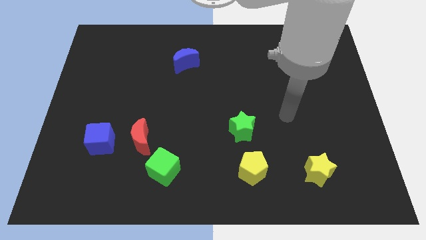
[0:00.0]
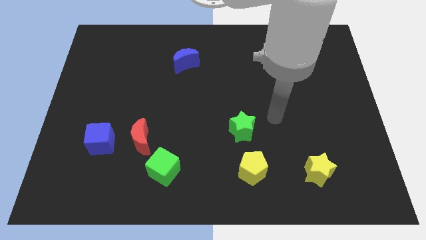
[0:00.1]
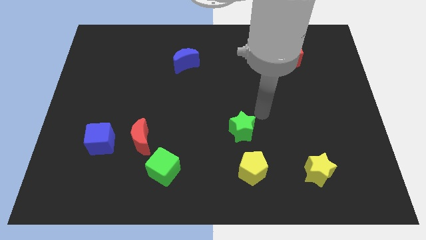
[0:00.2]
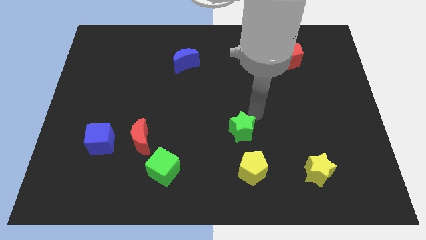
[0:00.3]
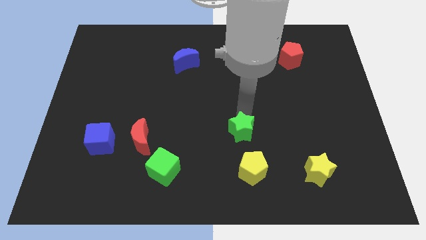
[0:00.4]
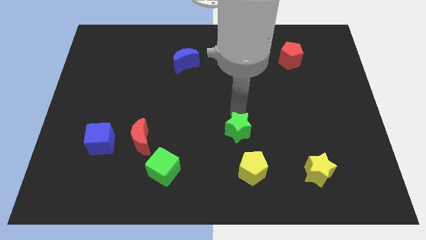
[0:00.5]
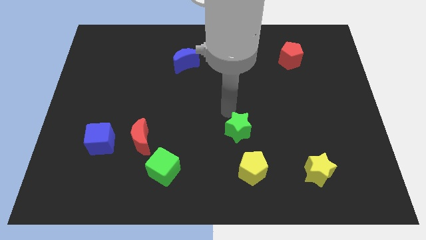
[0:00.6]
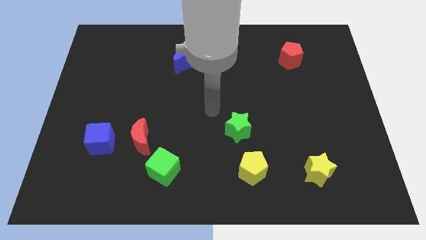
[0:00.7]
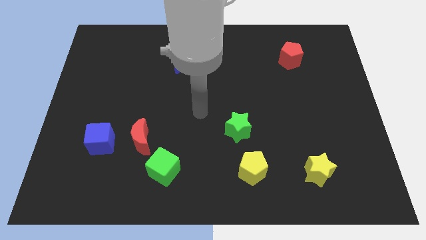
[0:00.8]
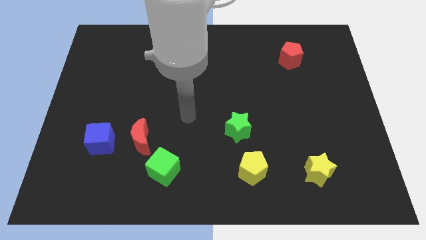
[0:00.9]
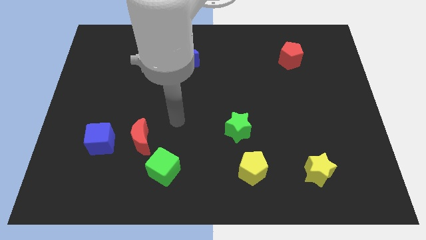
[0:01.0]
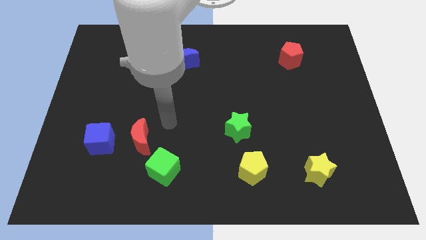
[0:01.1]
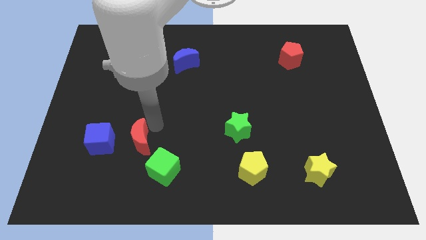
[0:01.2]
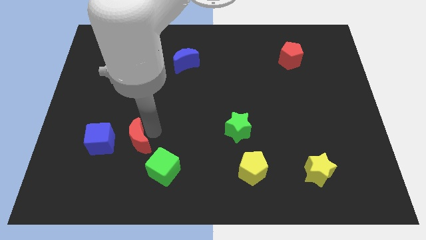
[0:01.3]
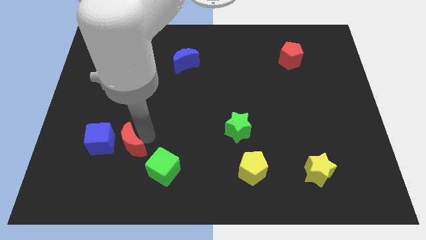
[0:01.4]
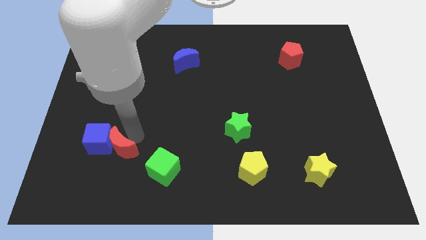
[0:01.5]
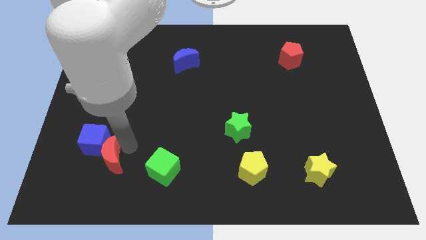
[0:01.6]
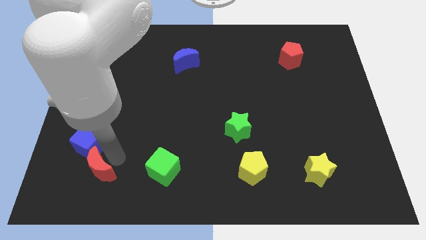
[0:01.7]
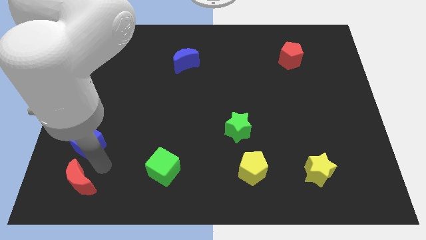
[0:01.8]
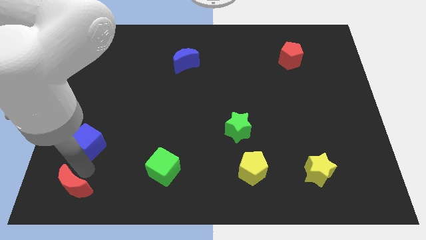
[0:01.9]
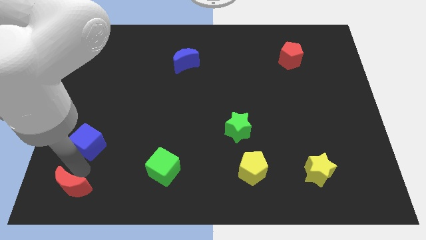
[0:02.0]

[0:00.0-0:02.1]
pull the blue cube apart from the red moon

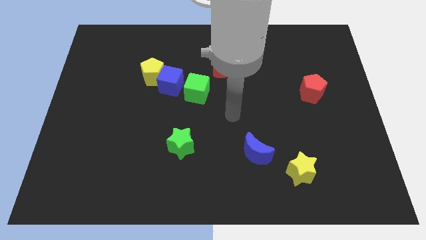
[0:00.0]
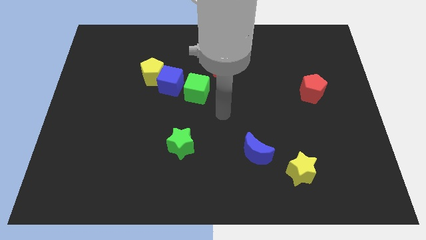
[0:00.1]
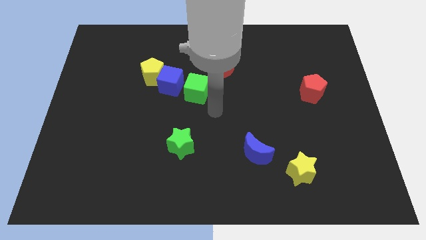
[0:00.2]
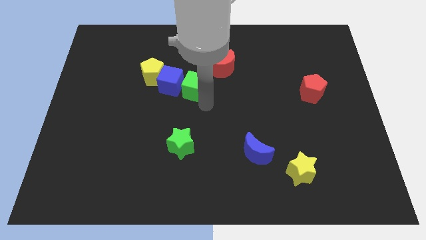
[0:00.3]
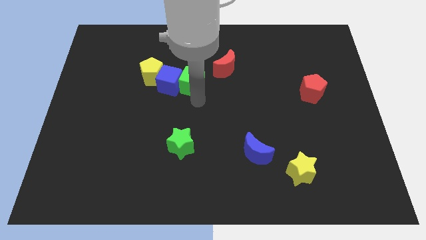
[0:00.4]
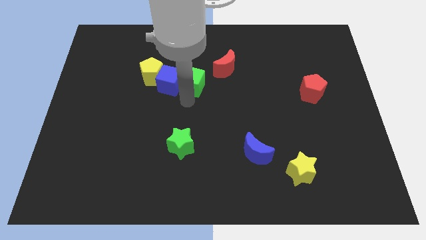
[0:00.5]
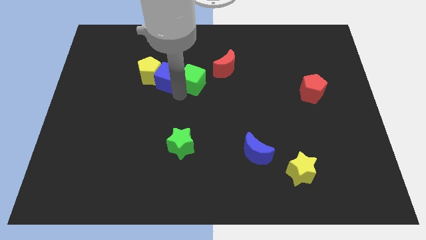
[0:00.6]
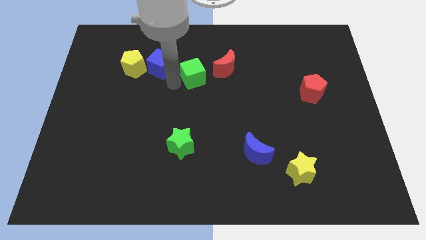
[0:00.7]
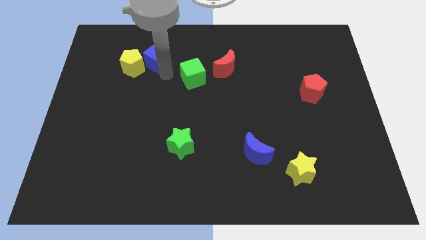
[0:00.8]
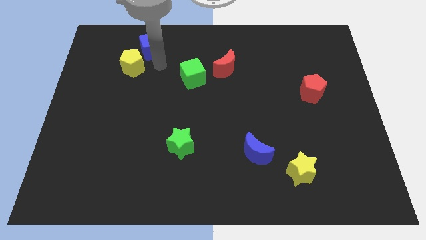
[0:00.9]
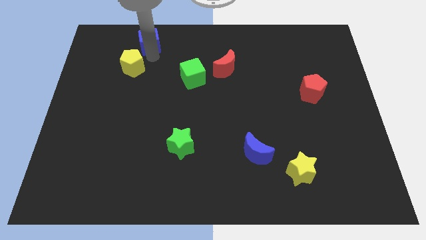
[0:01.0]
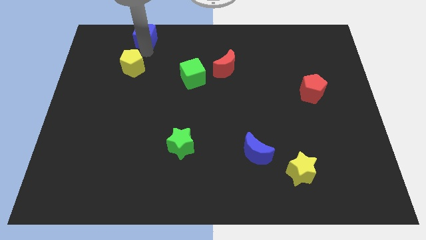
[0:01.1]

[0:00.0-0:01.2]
pull the yellow pentagon apart from the blue cube

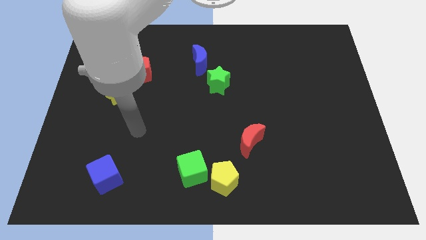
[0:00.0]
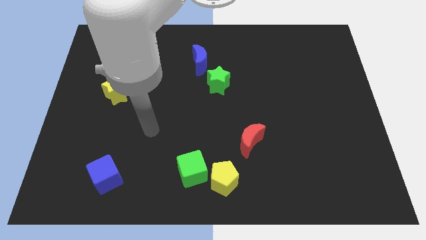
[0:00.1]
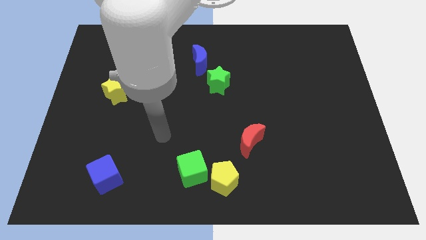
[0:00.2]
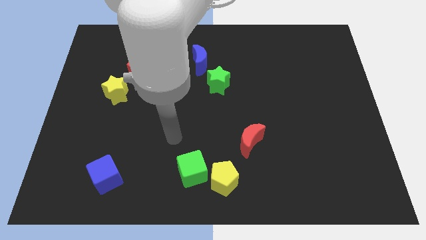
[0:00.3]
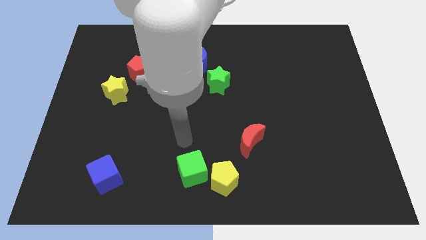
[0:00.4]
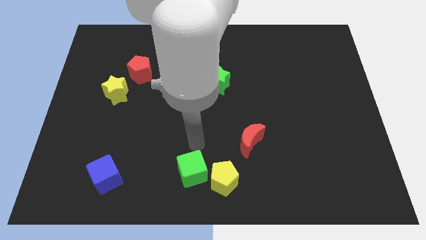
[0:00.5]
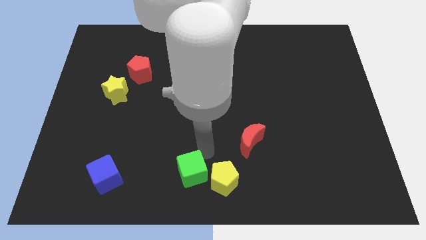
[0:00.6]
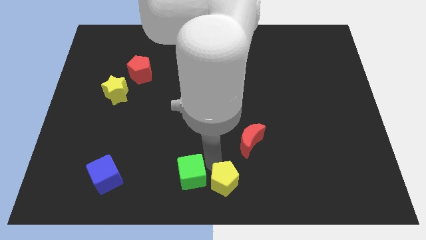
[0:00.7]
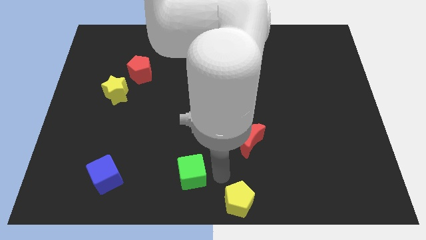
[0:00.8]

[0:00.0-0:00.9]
move the green cube away from the yellow pentagon

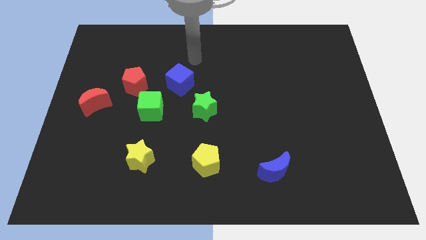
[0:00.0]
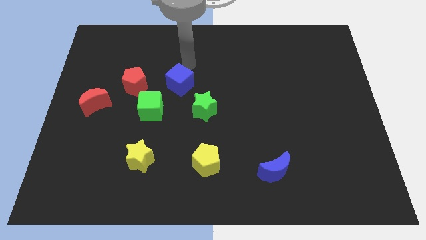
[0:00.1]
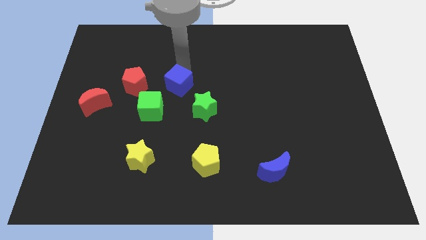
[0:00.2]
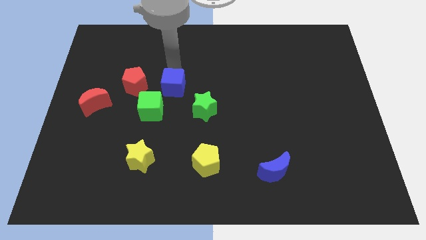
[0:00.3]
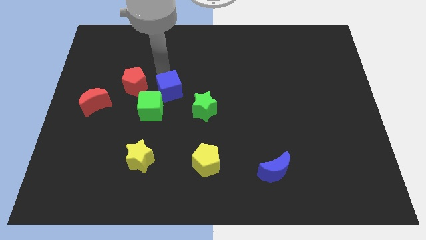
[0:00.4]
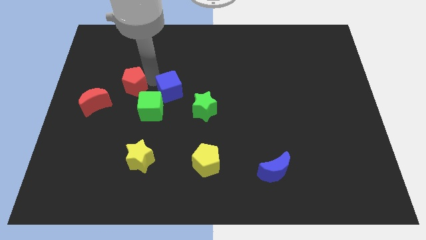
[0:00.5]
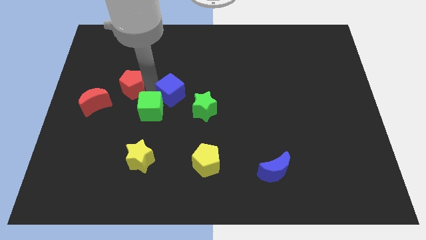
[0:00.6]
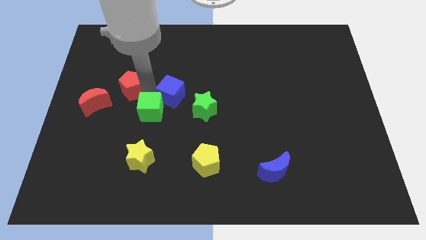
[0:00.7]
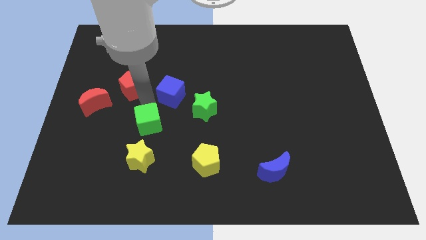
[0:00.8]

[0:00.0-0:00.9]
separate the red pentagon from the green cube

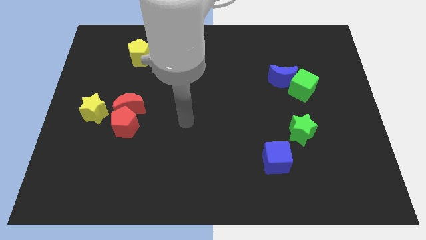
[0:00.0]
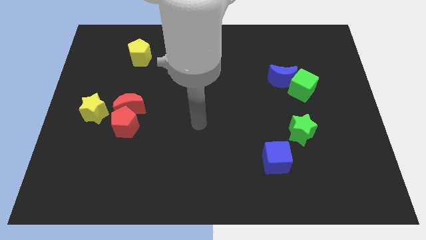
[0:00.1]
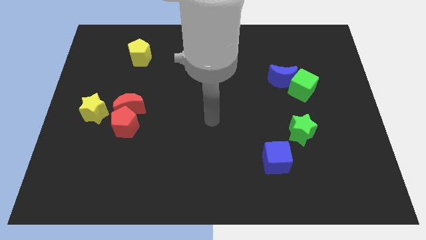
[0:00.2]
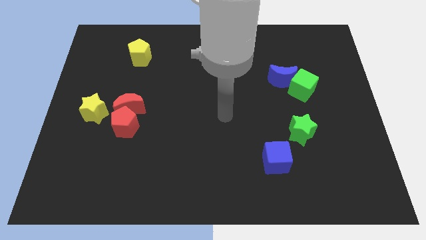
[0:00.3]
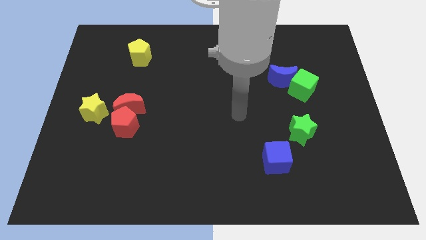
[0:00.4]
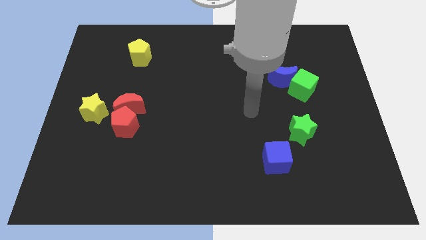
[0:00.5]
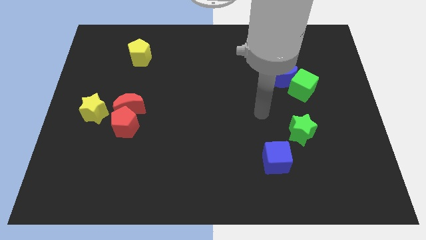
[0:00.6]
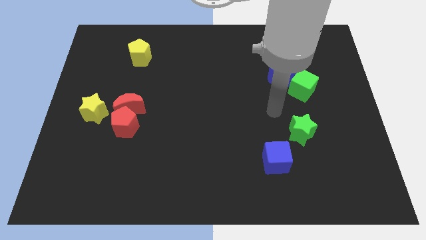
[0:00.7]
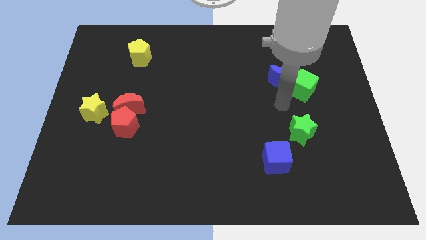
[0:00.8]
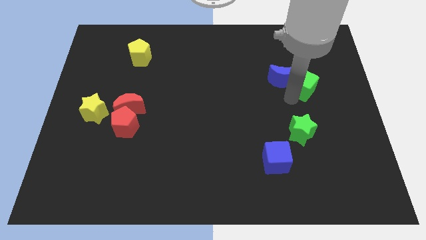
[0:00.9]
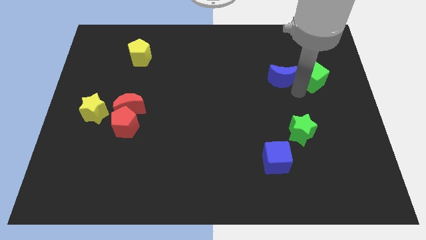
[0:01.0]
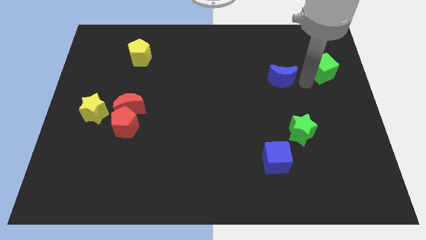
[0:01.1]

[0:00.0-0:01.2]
move the blue moon away from the green cube

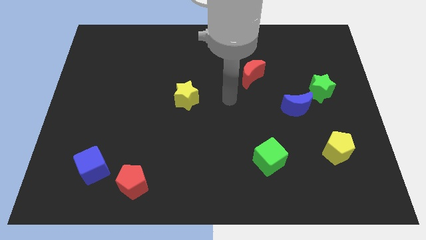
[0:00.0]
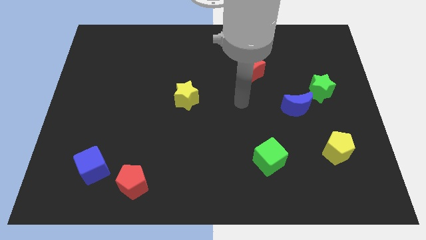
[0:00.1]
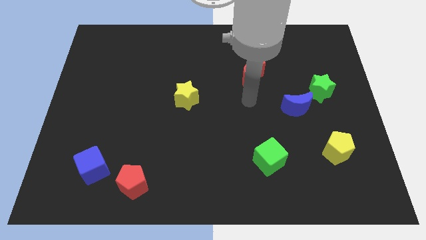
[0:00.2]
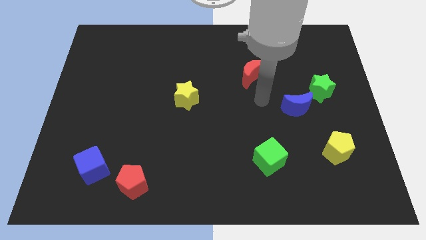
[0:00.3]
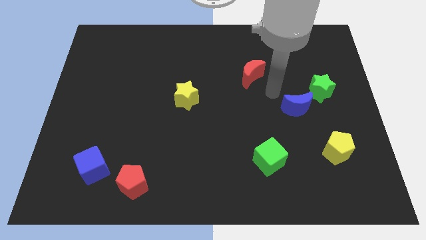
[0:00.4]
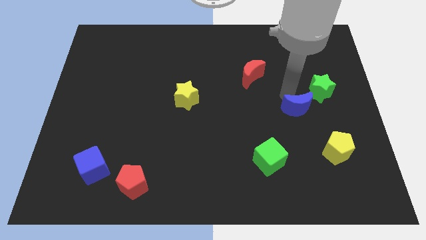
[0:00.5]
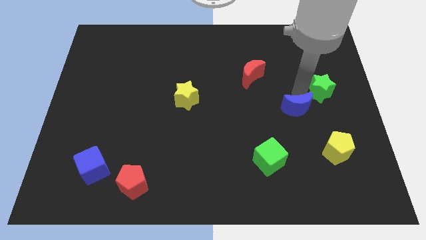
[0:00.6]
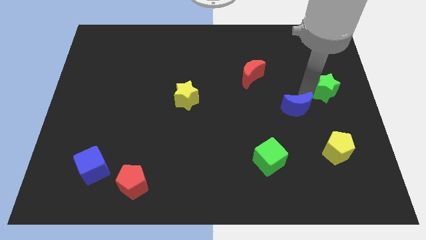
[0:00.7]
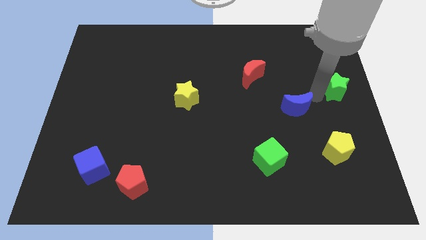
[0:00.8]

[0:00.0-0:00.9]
separate the blue moon from the green star

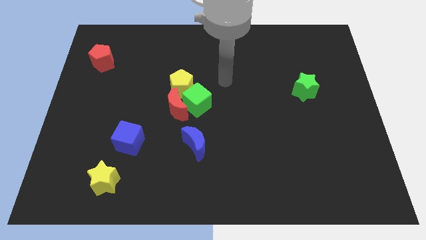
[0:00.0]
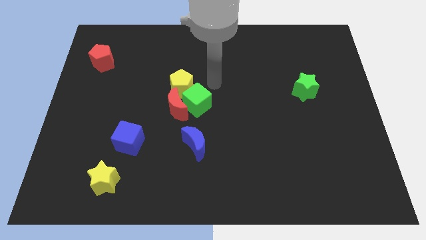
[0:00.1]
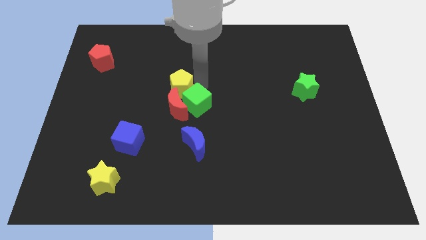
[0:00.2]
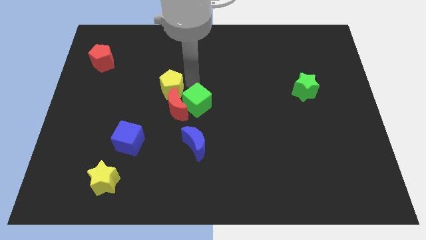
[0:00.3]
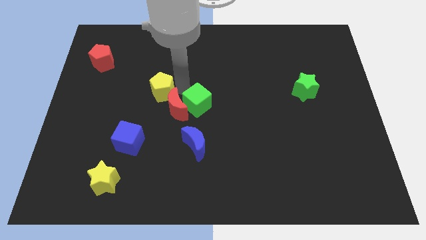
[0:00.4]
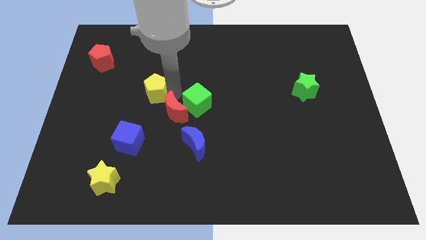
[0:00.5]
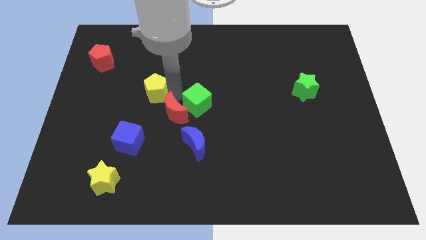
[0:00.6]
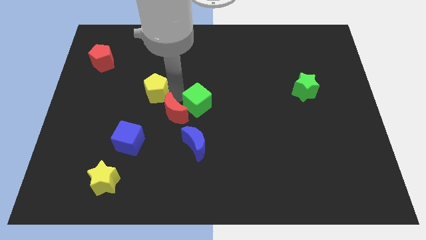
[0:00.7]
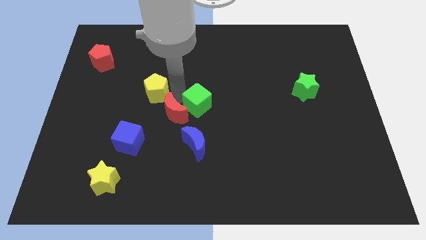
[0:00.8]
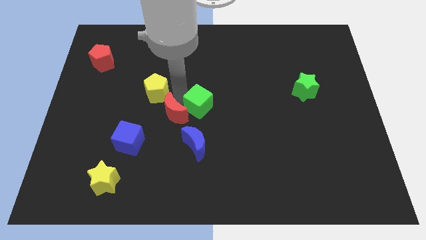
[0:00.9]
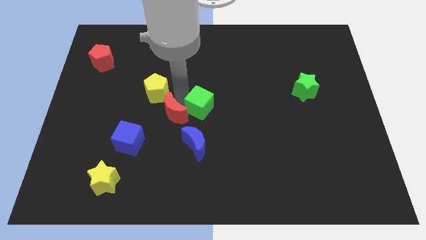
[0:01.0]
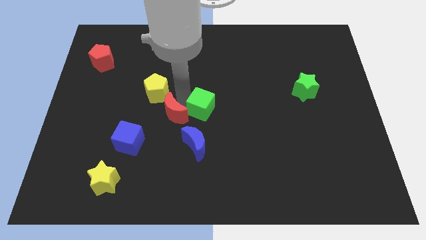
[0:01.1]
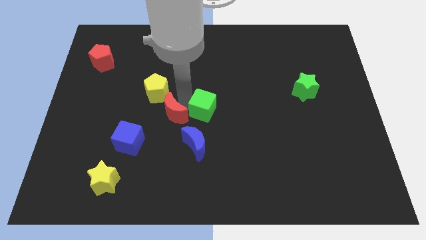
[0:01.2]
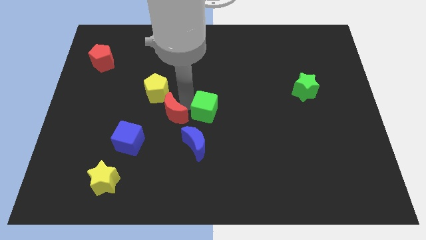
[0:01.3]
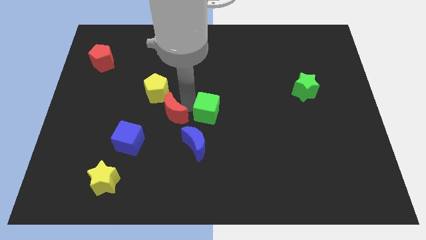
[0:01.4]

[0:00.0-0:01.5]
pull the green cube apart from the red moon and yellow pentagon

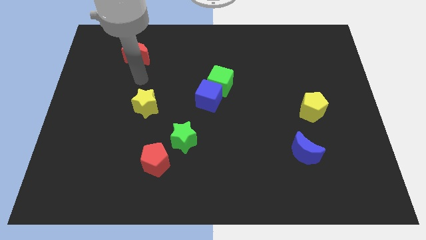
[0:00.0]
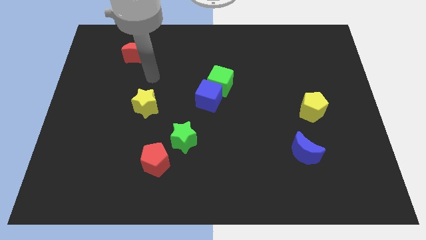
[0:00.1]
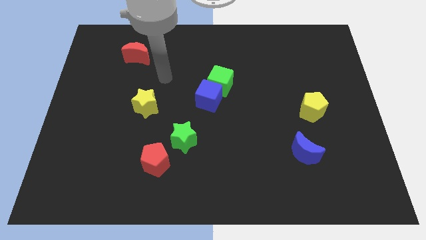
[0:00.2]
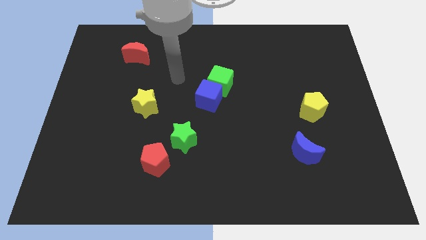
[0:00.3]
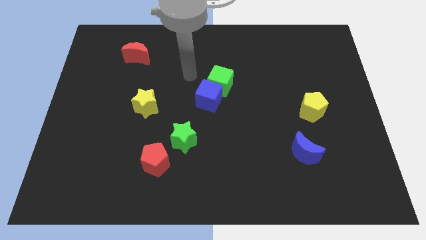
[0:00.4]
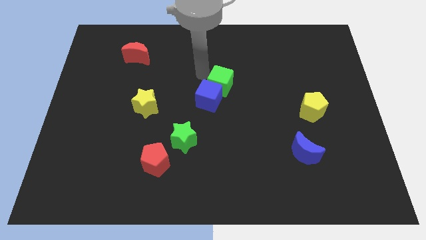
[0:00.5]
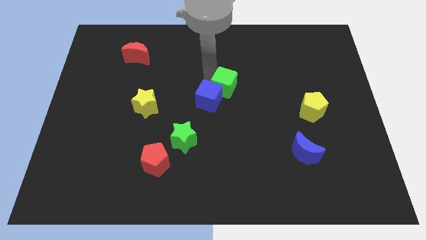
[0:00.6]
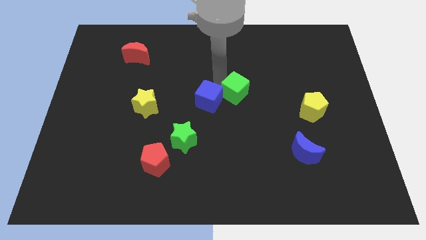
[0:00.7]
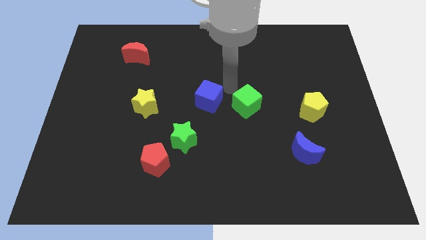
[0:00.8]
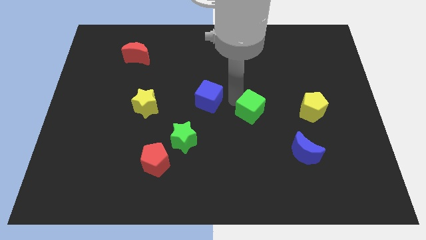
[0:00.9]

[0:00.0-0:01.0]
separate the blue cube from the green cube
